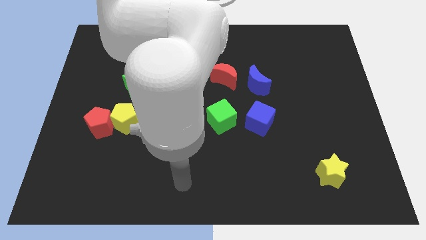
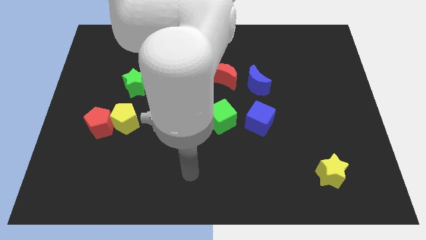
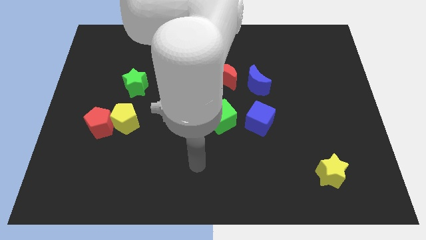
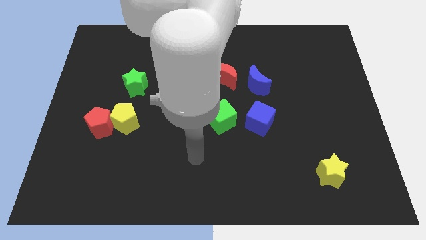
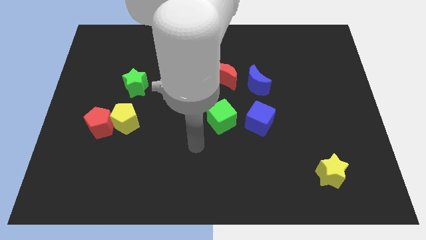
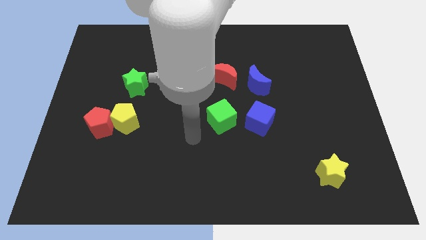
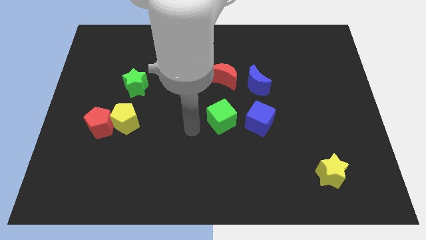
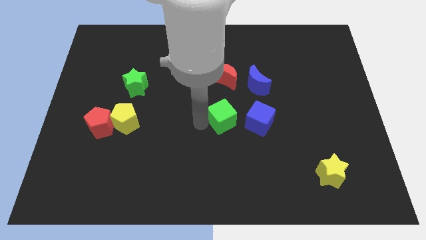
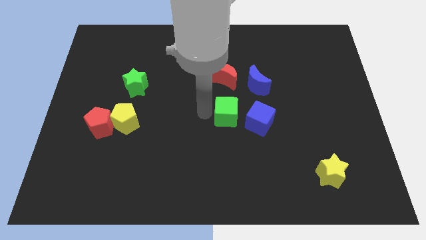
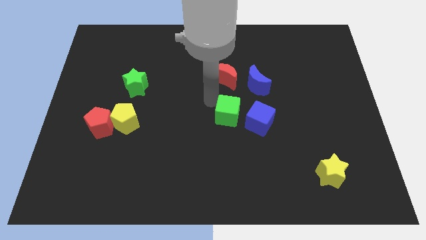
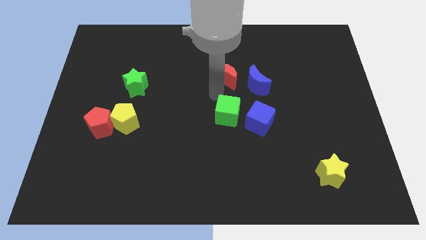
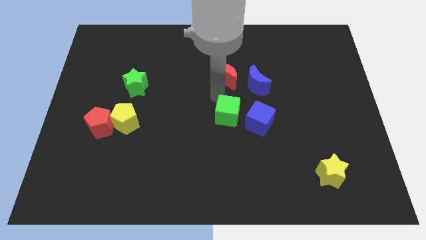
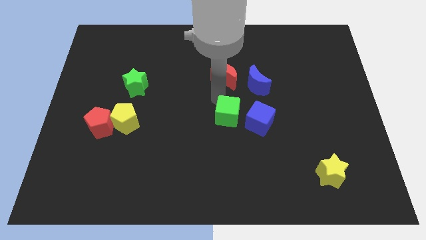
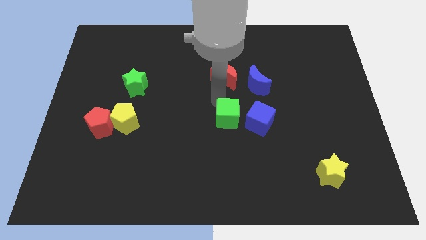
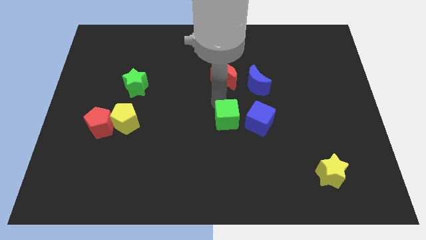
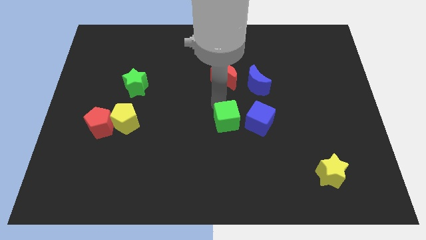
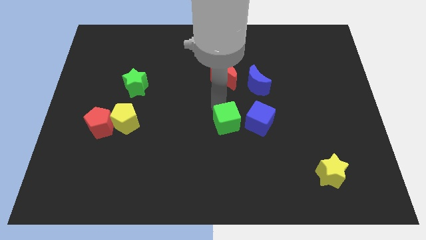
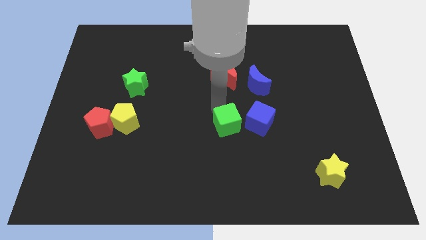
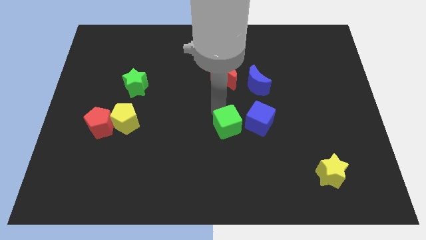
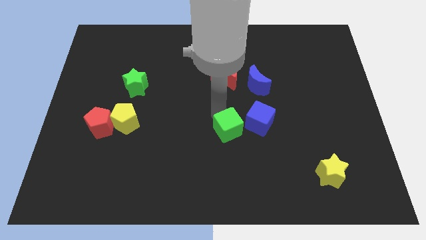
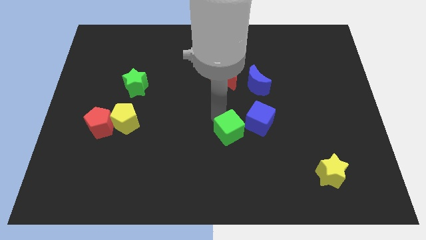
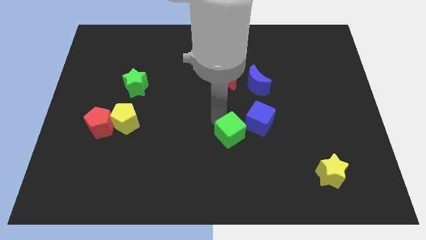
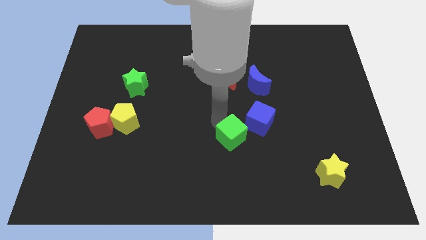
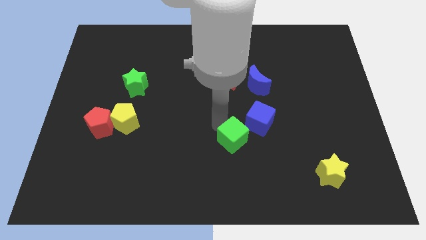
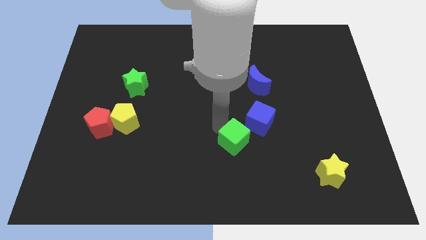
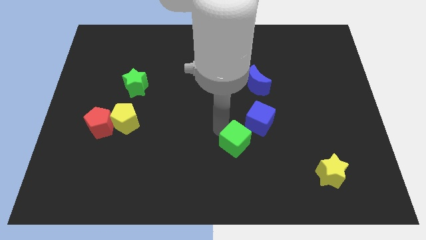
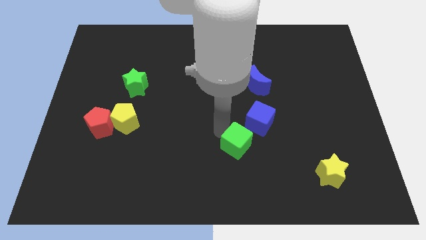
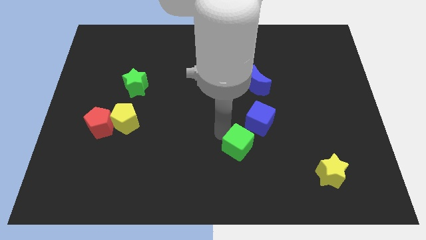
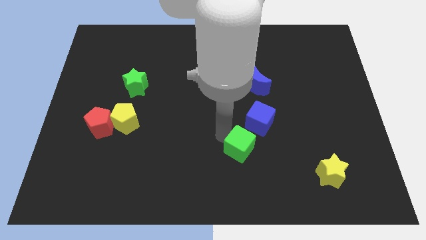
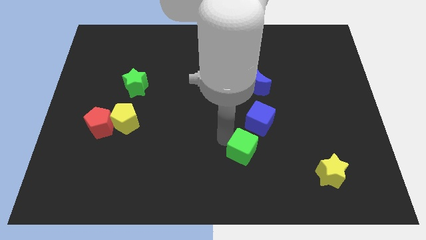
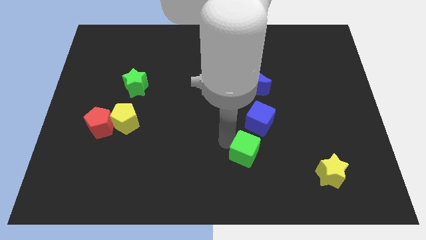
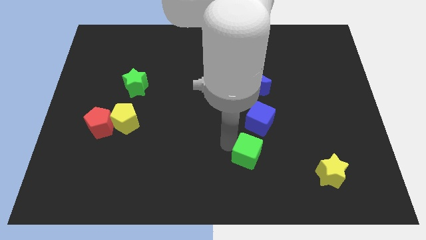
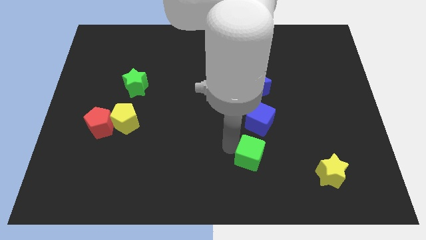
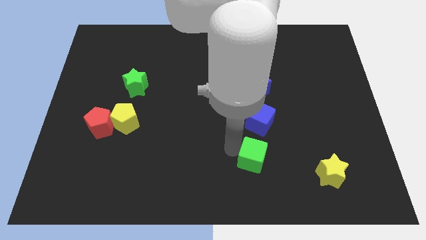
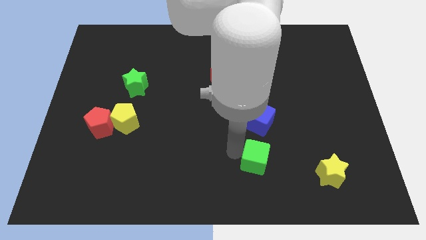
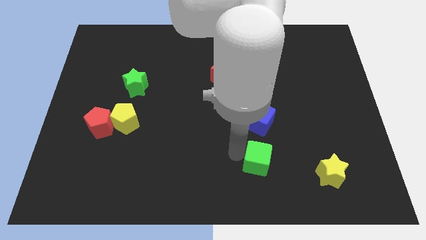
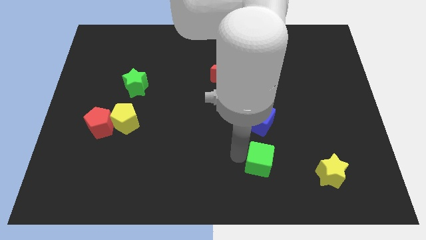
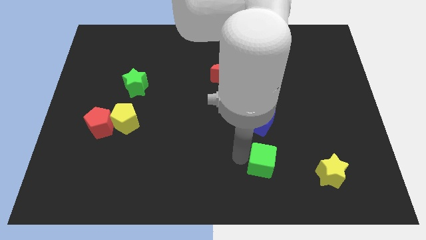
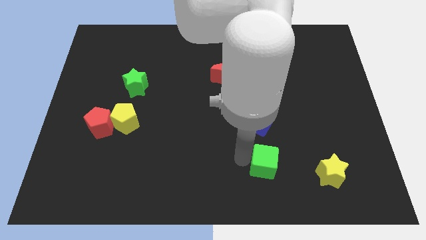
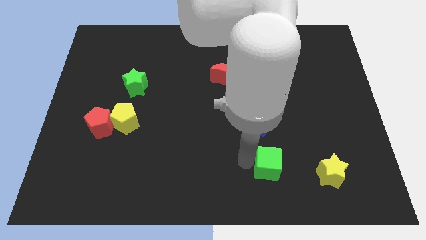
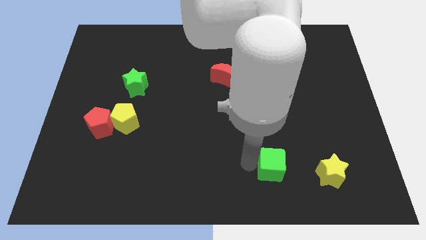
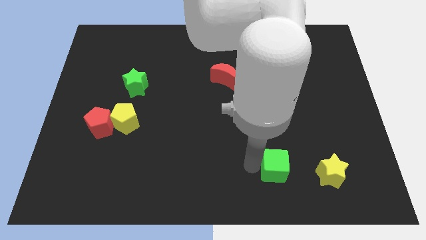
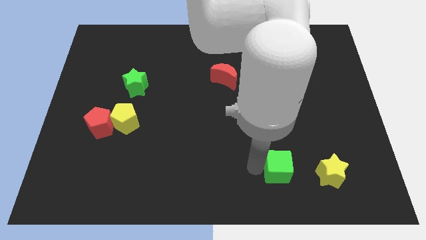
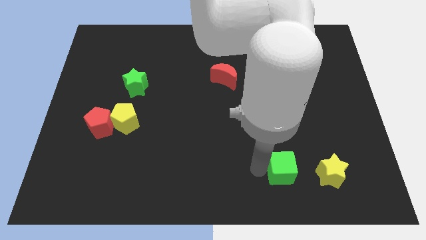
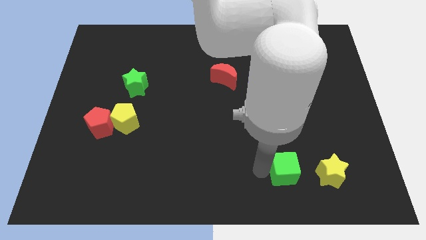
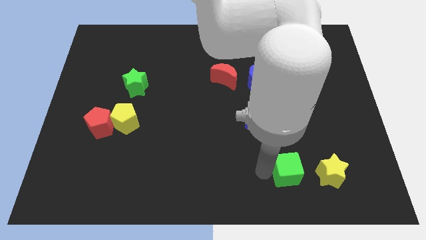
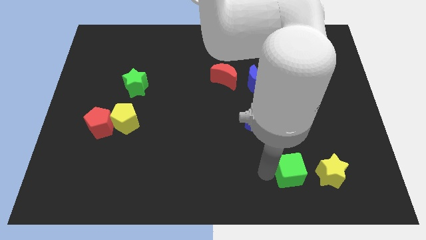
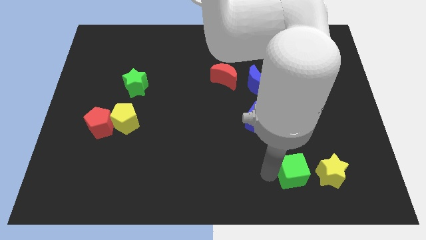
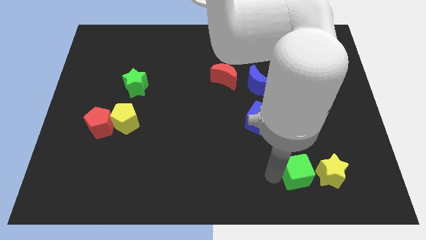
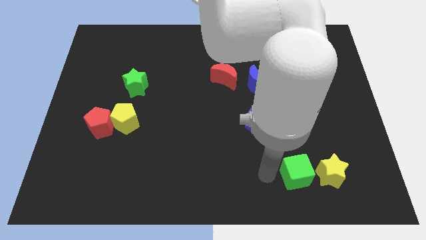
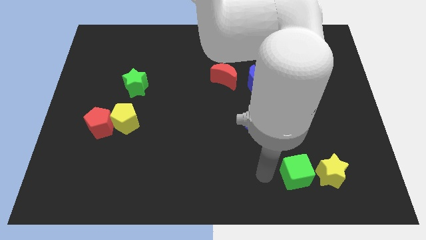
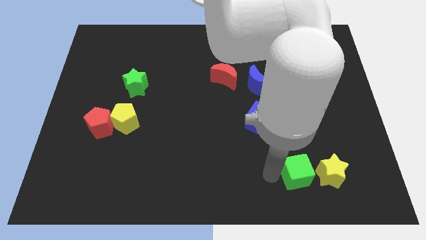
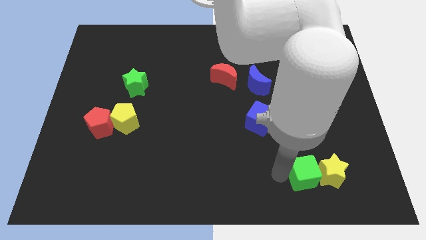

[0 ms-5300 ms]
move the green cube close to the yellow star

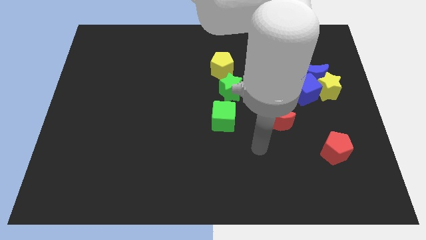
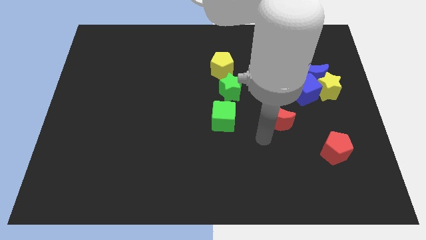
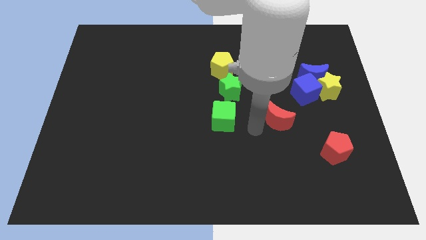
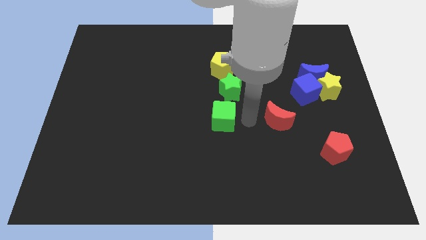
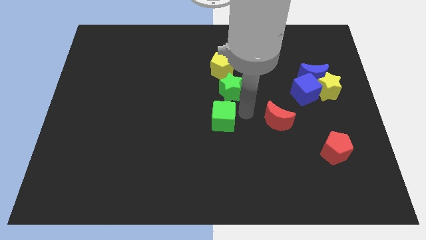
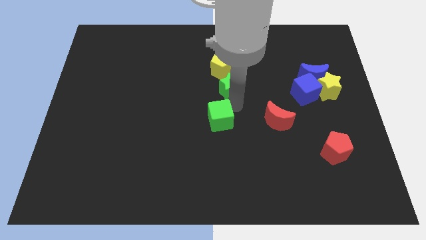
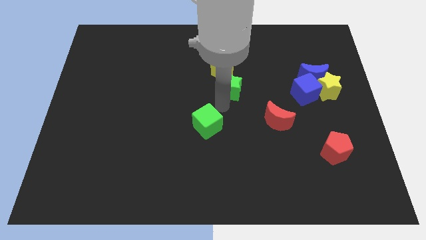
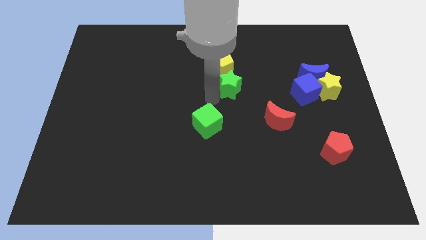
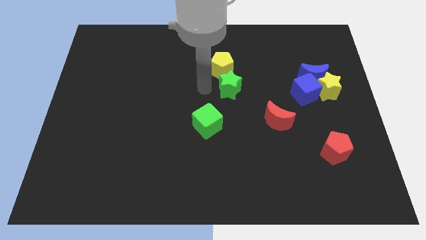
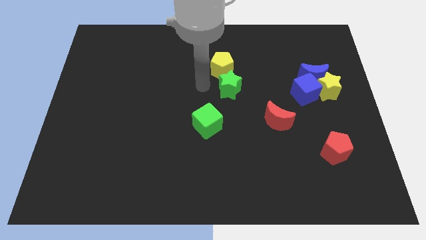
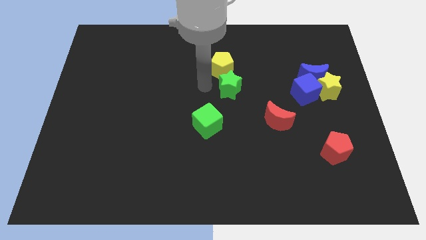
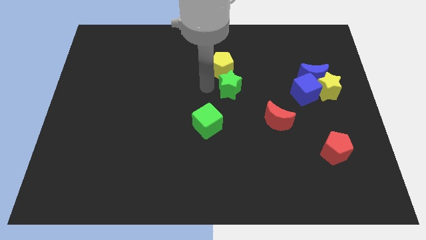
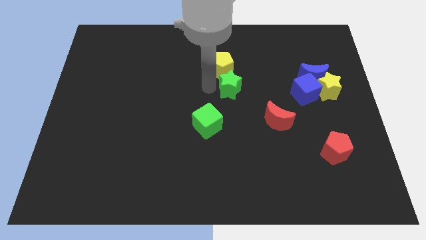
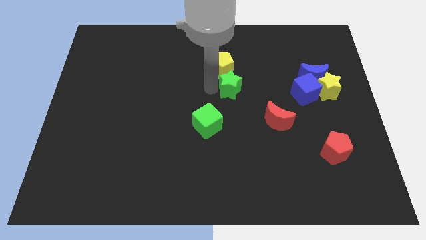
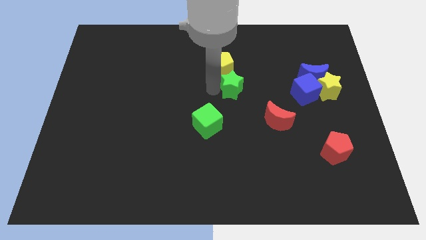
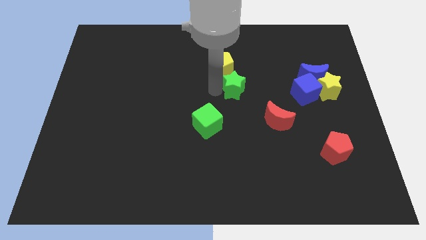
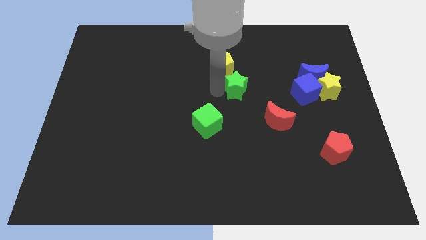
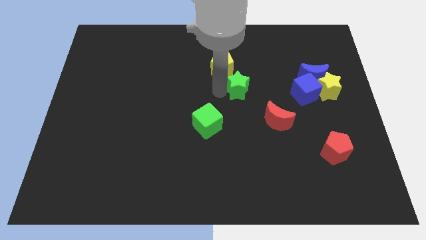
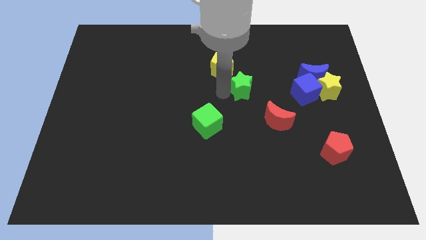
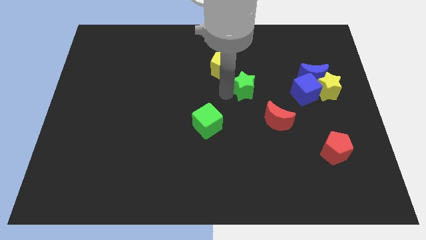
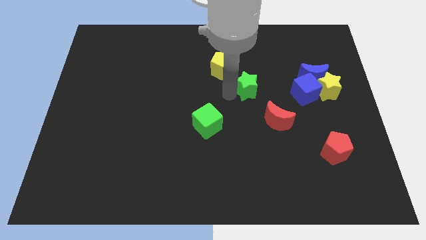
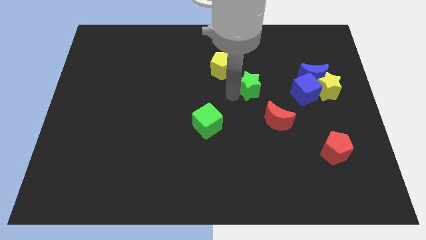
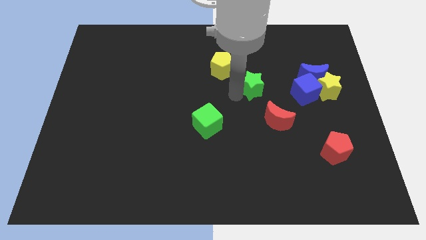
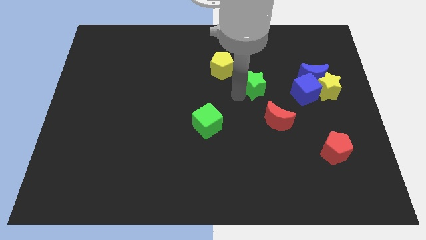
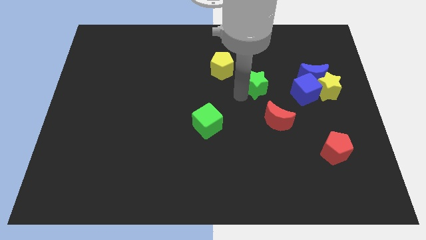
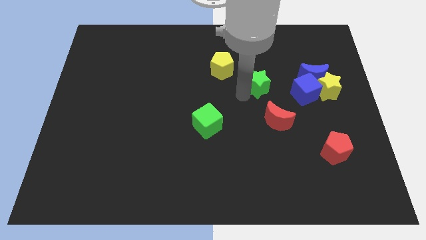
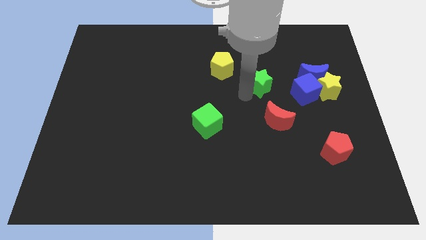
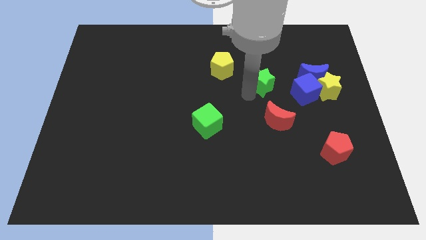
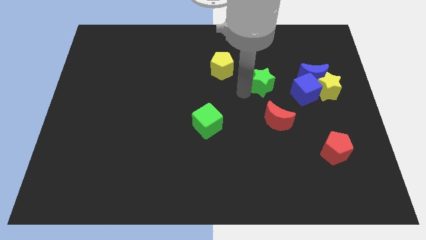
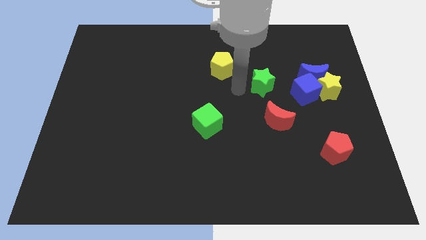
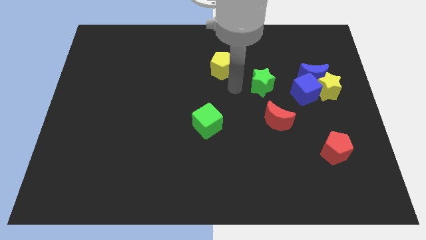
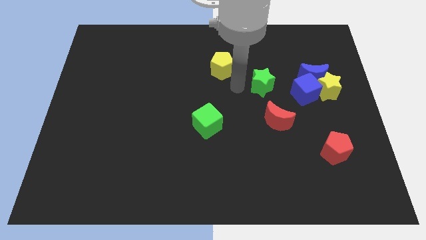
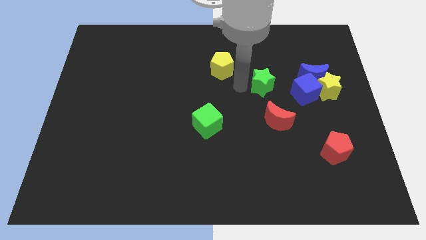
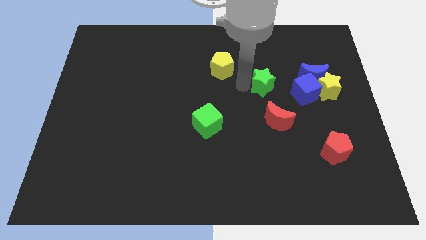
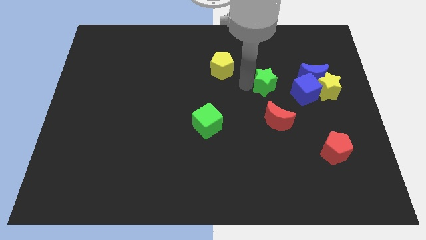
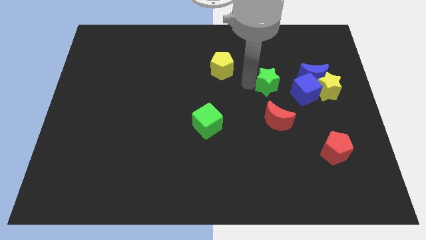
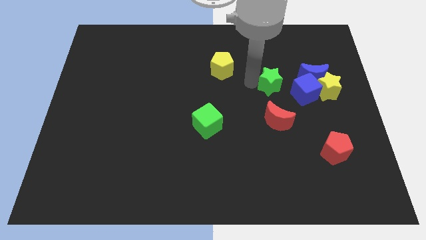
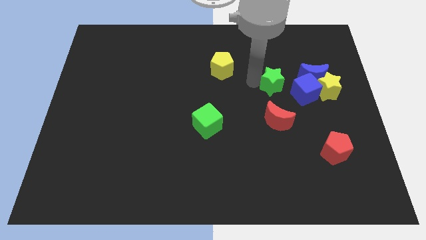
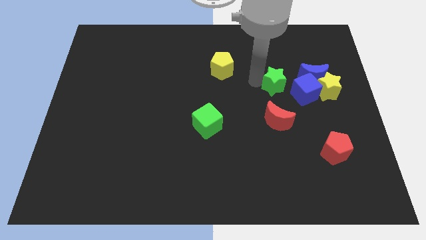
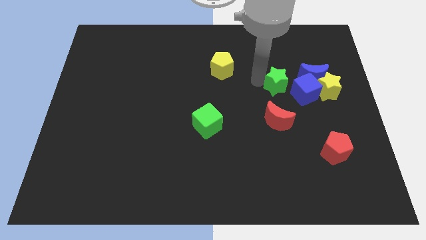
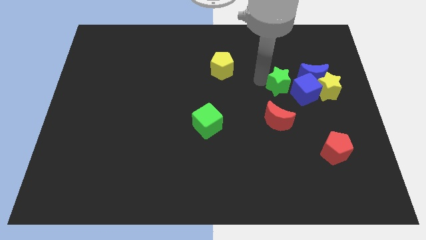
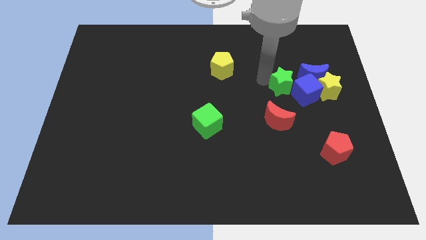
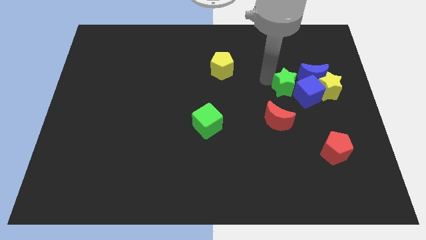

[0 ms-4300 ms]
slide the green star to the blue cube
